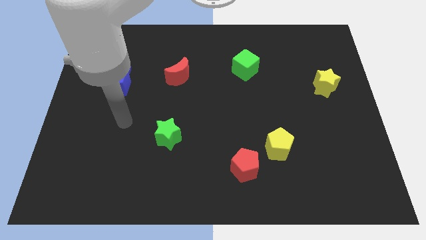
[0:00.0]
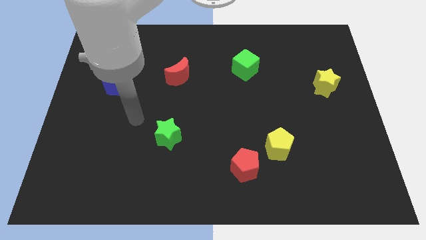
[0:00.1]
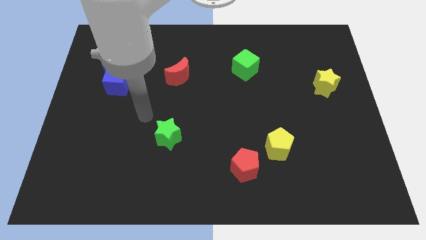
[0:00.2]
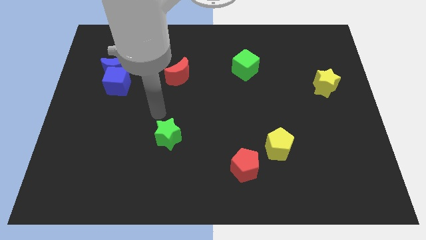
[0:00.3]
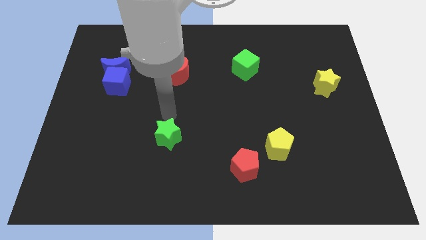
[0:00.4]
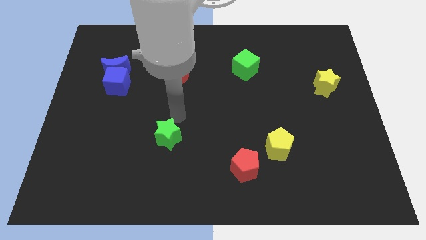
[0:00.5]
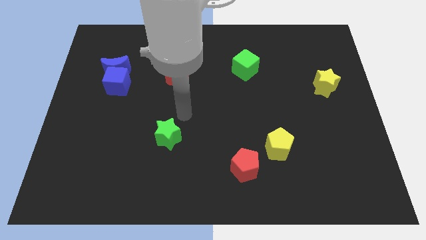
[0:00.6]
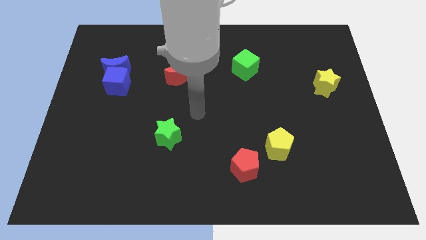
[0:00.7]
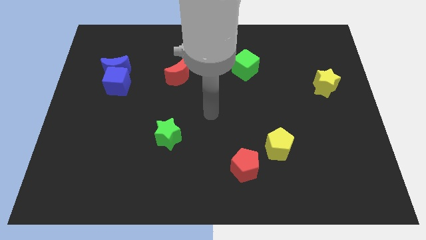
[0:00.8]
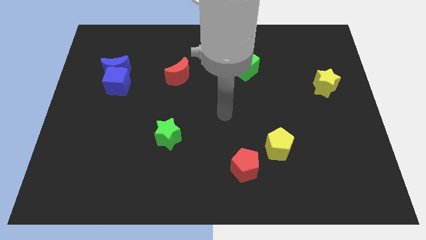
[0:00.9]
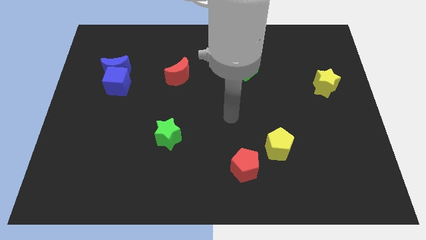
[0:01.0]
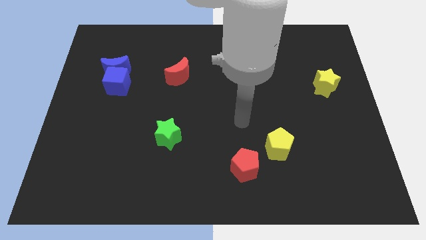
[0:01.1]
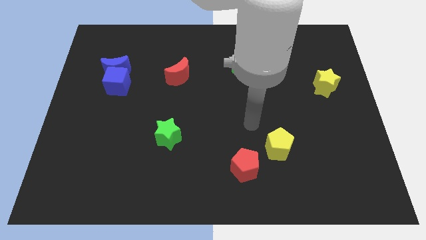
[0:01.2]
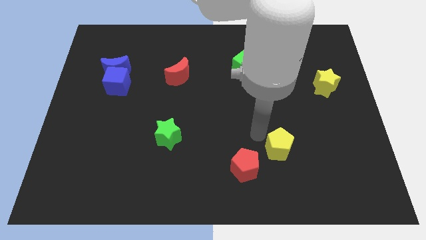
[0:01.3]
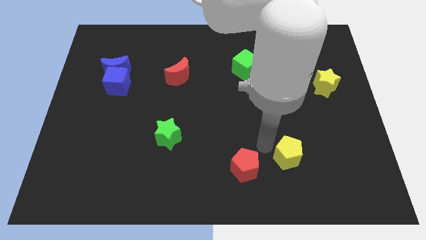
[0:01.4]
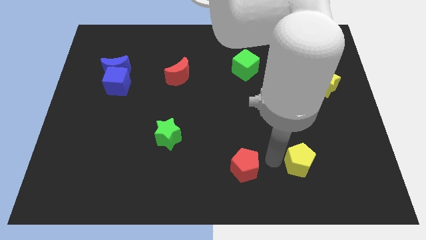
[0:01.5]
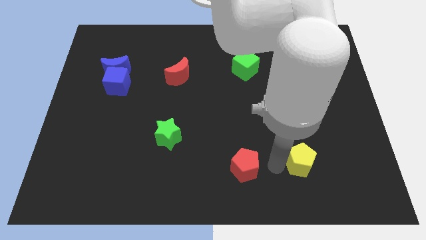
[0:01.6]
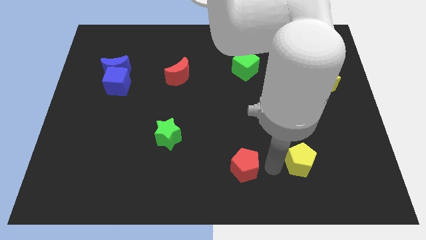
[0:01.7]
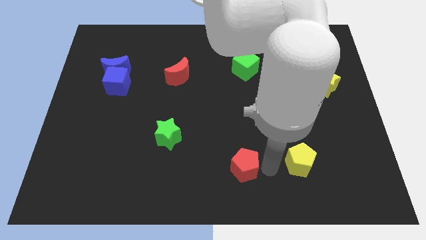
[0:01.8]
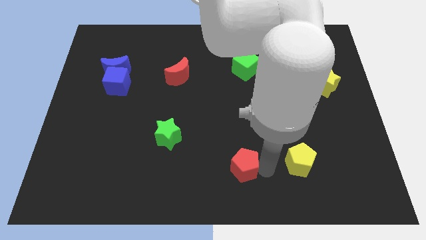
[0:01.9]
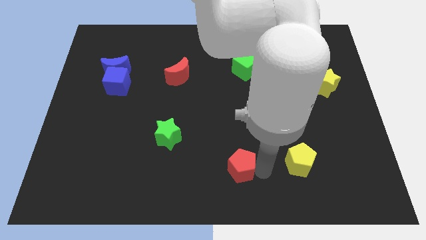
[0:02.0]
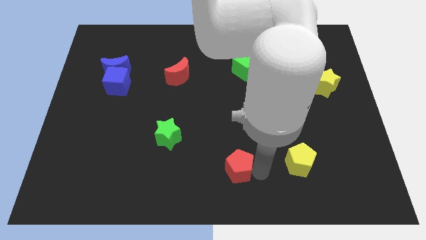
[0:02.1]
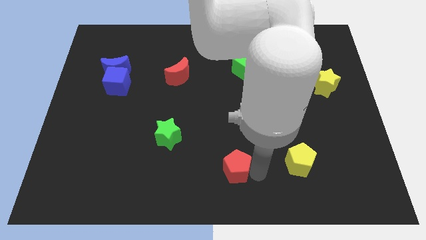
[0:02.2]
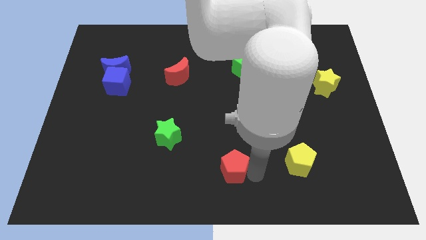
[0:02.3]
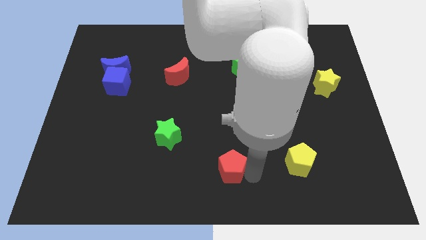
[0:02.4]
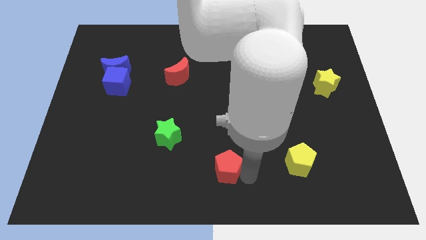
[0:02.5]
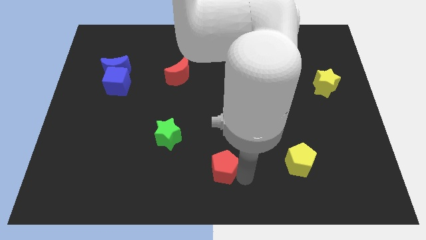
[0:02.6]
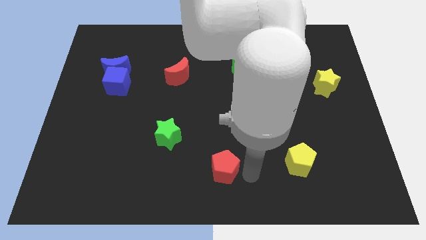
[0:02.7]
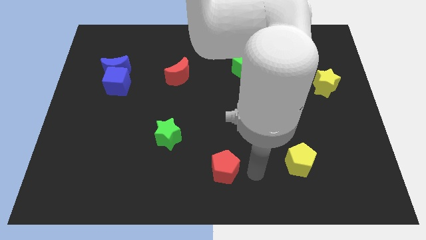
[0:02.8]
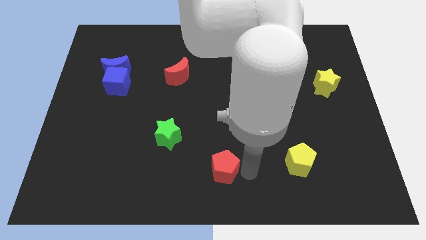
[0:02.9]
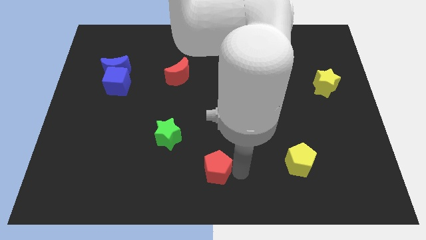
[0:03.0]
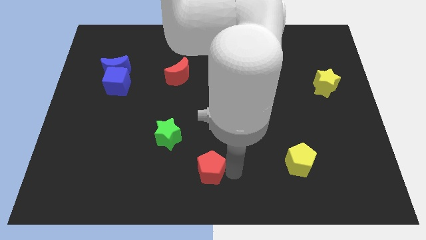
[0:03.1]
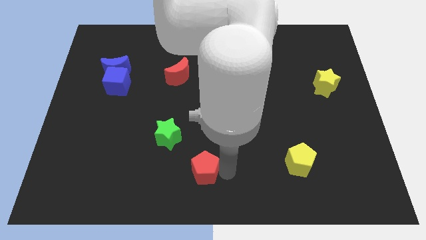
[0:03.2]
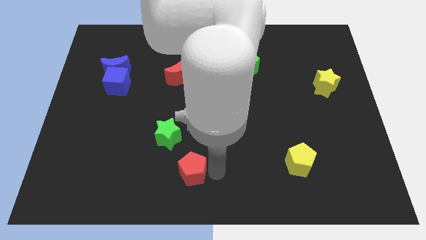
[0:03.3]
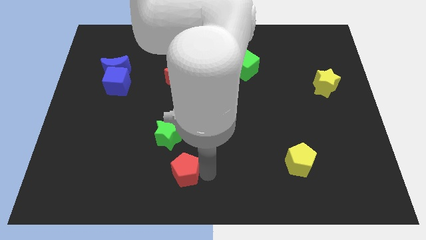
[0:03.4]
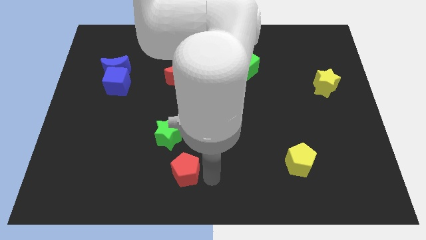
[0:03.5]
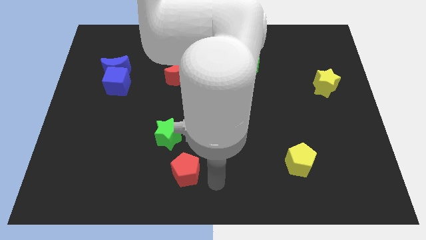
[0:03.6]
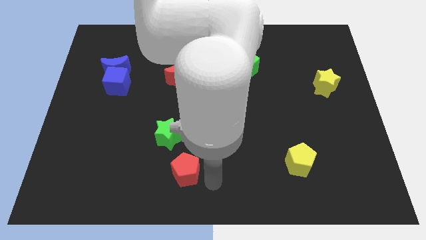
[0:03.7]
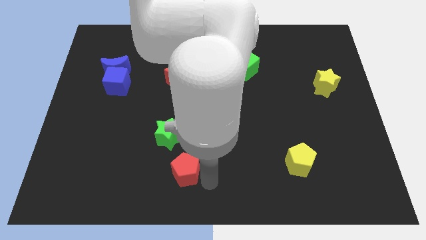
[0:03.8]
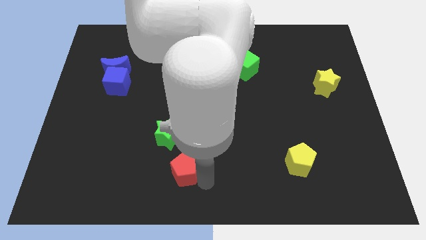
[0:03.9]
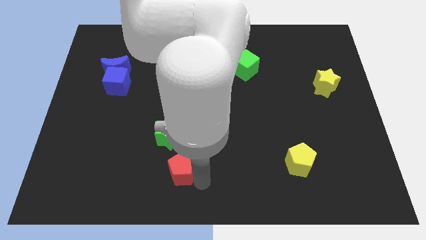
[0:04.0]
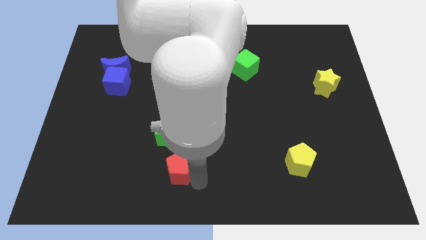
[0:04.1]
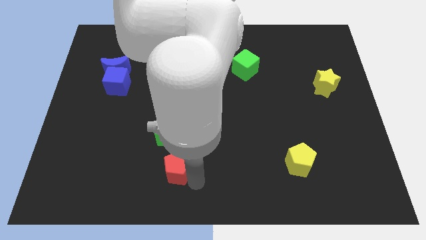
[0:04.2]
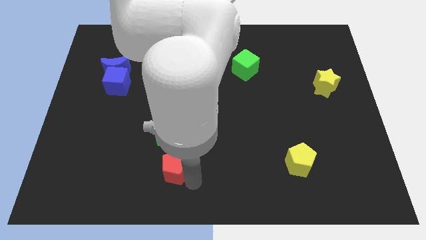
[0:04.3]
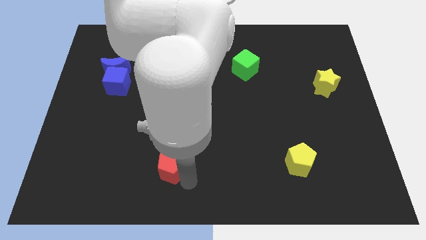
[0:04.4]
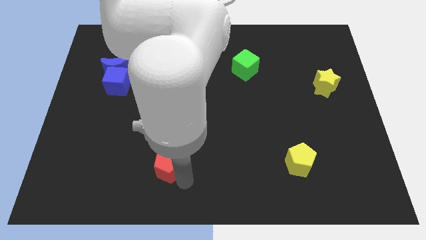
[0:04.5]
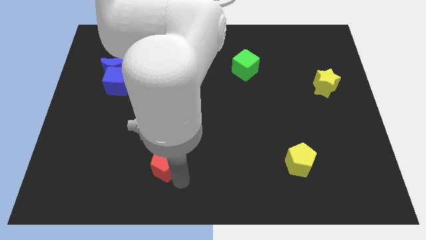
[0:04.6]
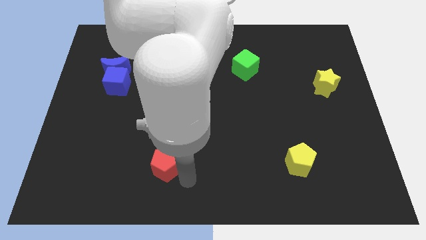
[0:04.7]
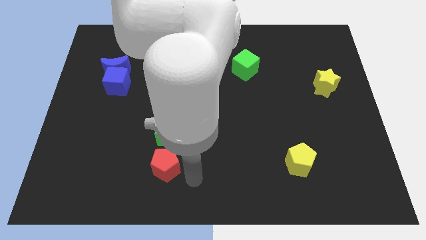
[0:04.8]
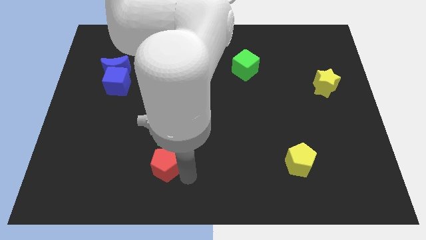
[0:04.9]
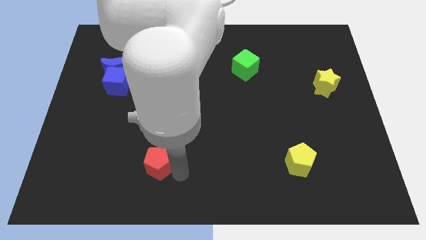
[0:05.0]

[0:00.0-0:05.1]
push the red pentagon to the bottom left side of the green star

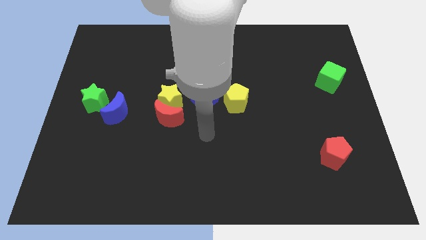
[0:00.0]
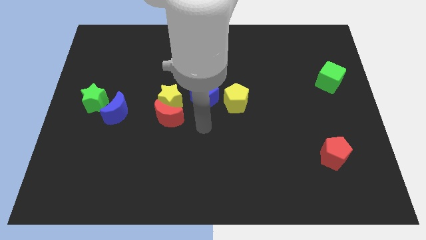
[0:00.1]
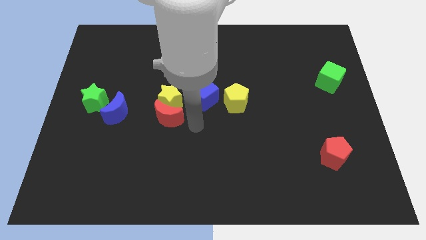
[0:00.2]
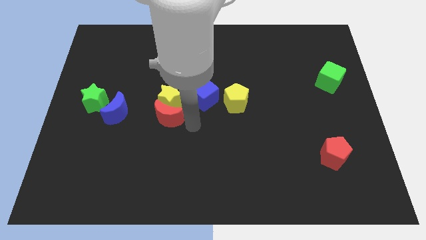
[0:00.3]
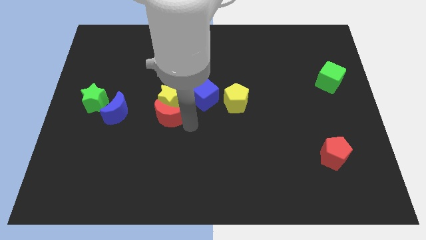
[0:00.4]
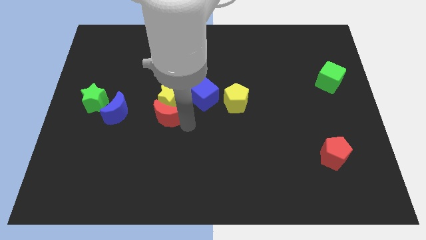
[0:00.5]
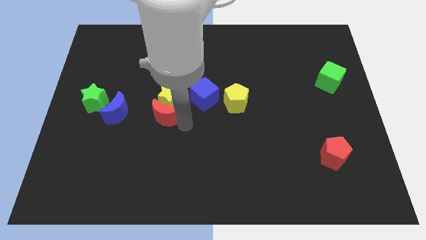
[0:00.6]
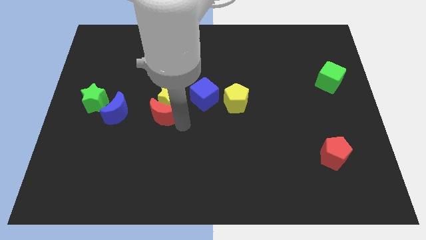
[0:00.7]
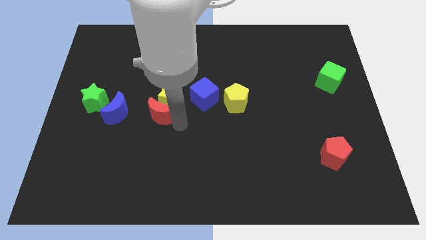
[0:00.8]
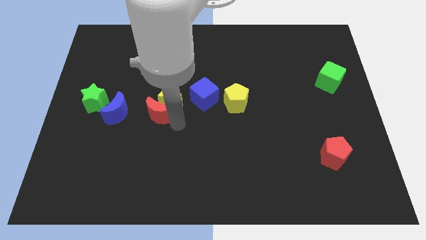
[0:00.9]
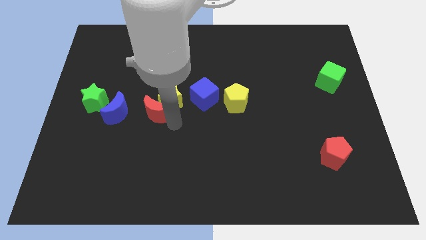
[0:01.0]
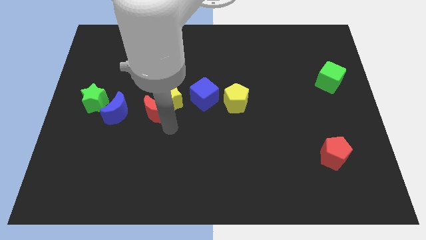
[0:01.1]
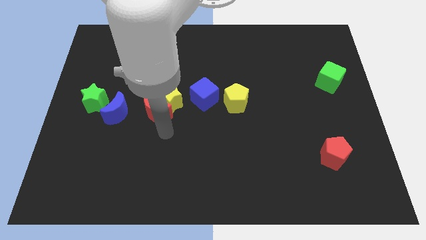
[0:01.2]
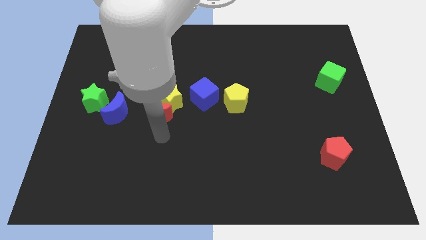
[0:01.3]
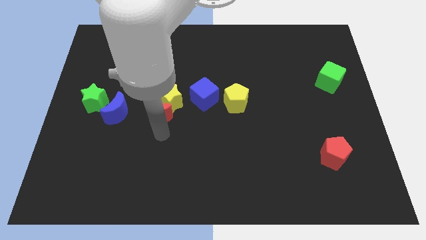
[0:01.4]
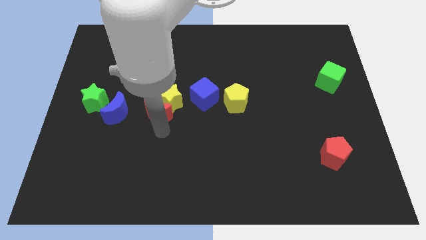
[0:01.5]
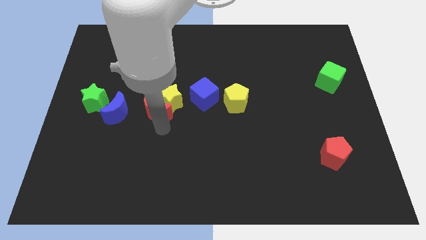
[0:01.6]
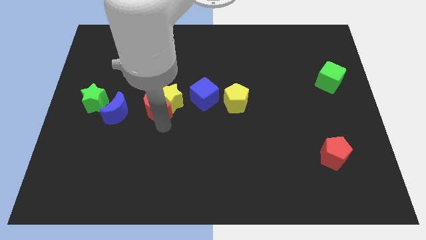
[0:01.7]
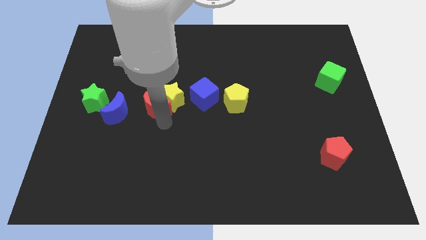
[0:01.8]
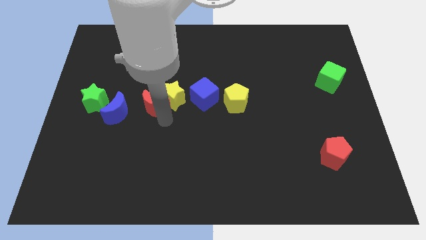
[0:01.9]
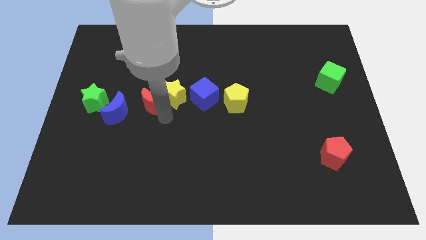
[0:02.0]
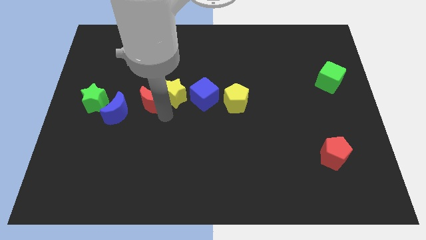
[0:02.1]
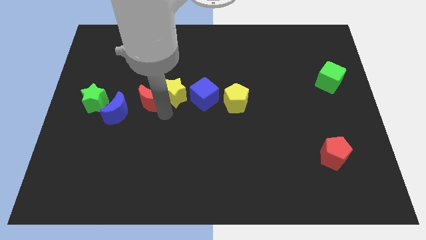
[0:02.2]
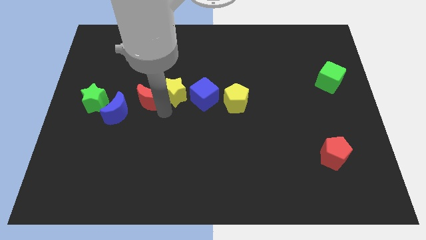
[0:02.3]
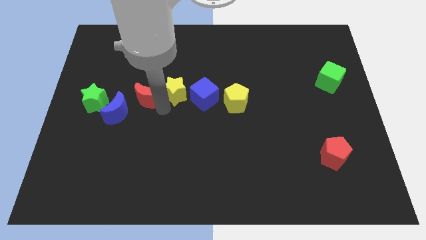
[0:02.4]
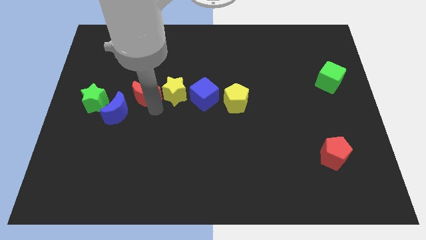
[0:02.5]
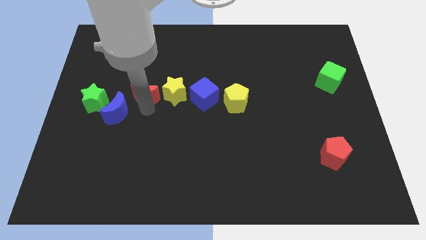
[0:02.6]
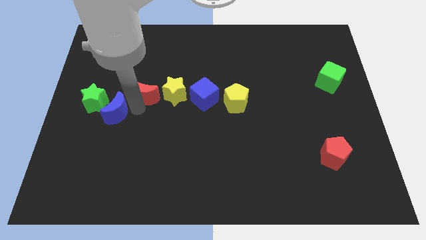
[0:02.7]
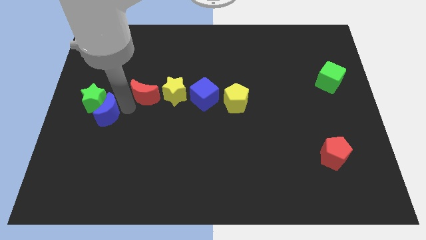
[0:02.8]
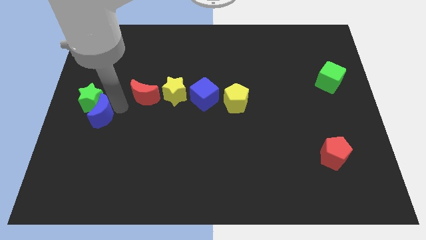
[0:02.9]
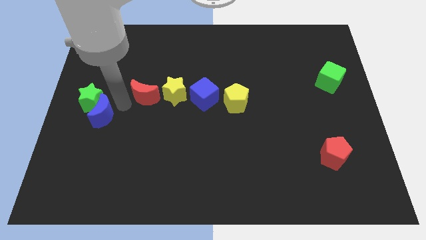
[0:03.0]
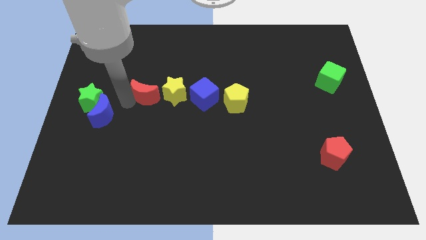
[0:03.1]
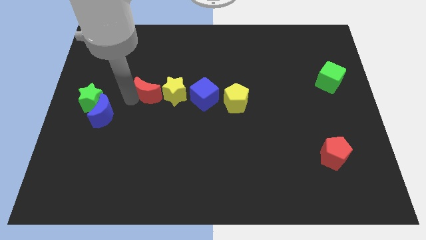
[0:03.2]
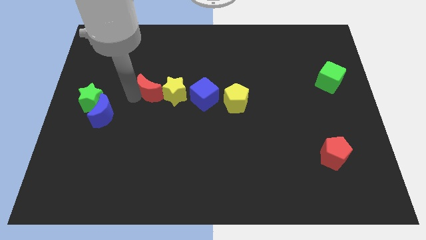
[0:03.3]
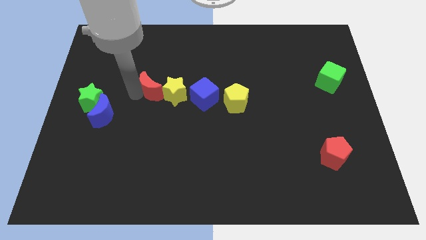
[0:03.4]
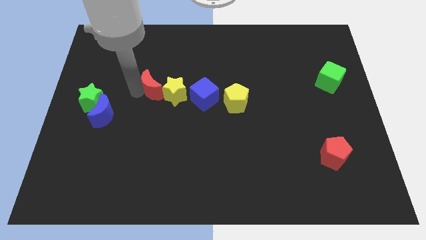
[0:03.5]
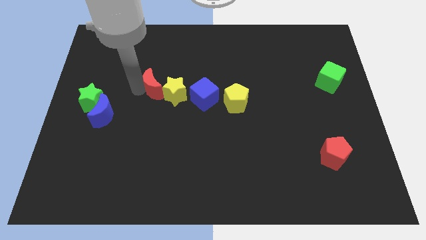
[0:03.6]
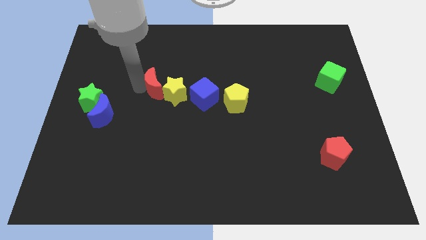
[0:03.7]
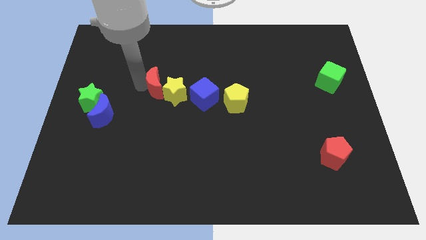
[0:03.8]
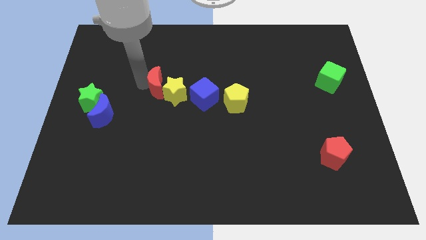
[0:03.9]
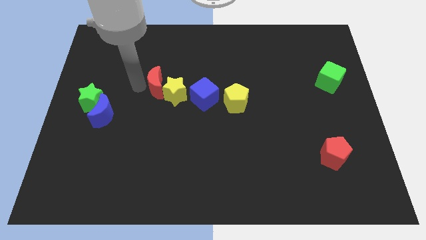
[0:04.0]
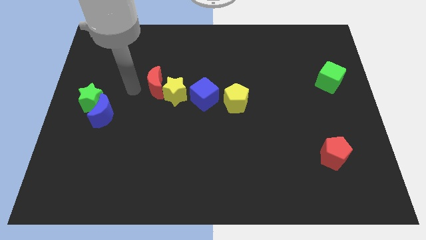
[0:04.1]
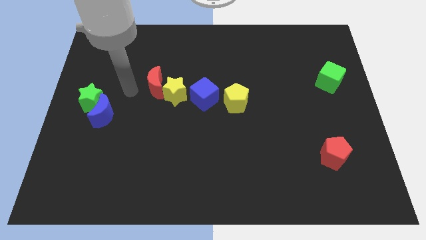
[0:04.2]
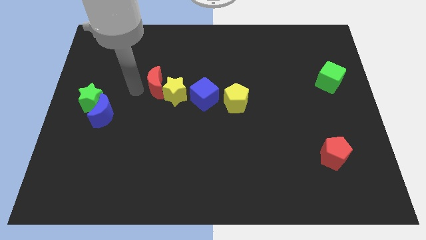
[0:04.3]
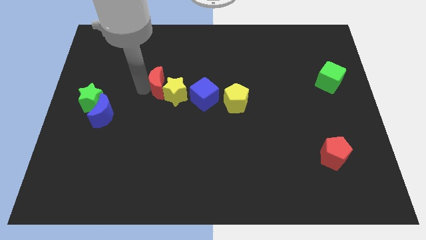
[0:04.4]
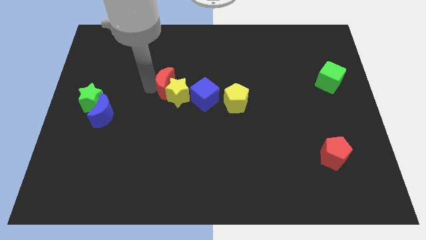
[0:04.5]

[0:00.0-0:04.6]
put the red moon diagonally up and to the left of the blue cube
